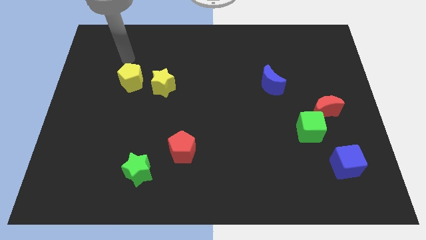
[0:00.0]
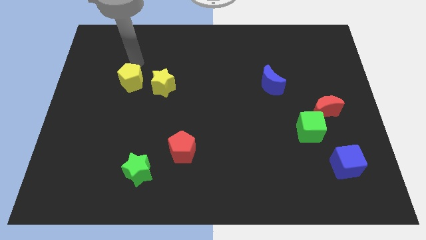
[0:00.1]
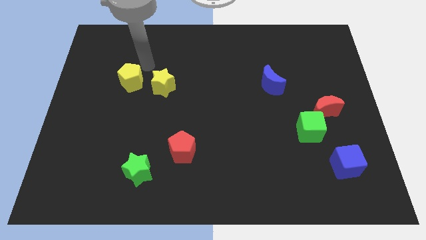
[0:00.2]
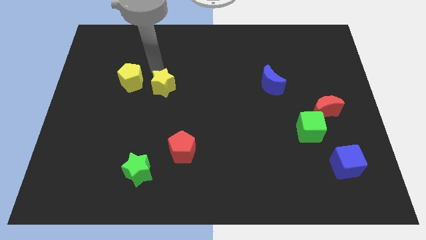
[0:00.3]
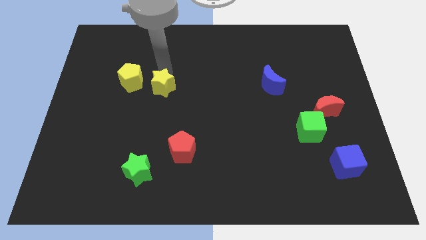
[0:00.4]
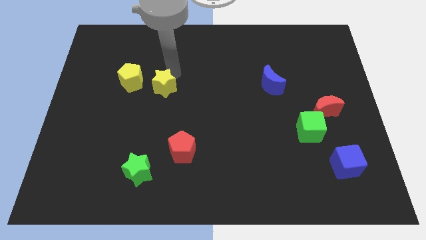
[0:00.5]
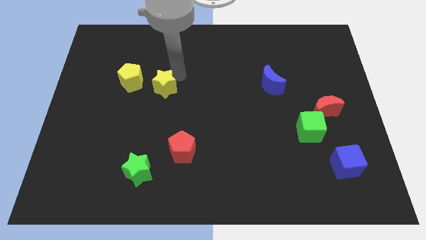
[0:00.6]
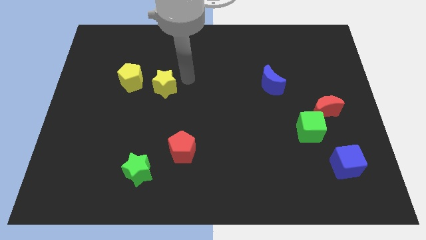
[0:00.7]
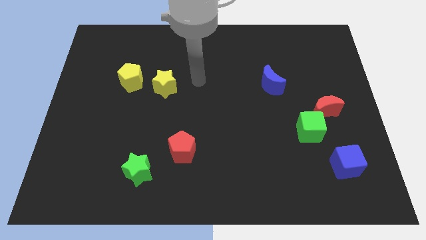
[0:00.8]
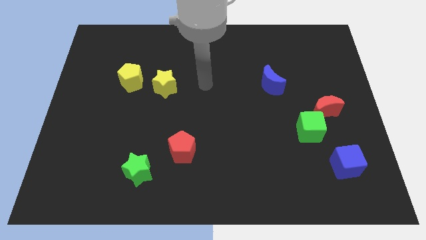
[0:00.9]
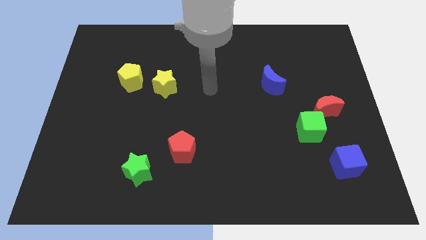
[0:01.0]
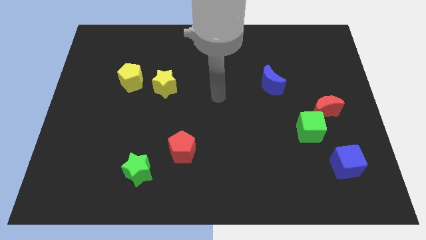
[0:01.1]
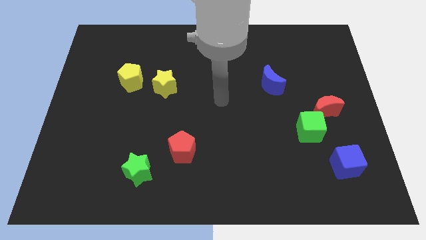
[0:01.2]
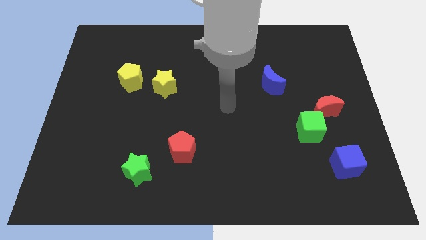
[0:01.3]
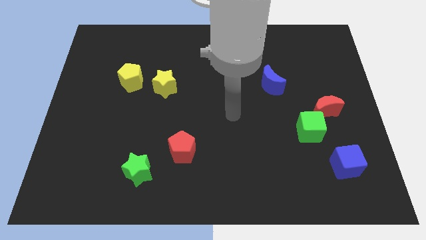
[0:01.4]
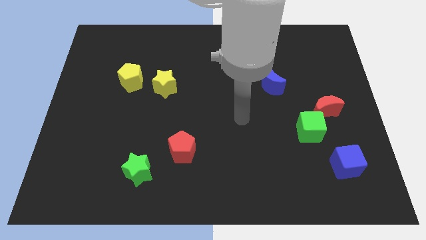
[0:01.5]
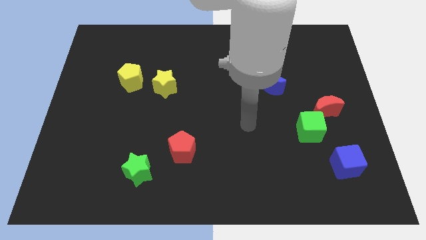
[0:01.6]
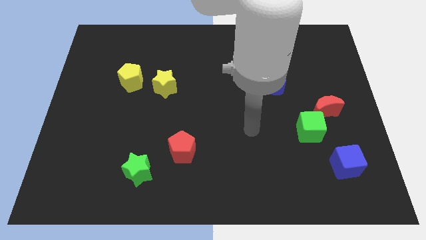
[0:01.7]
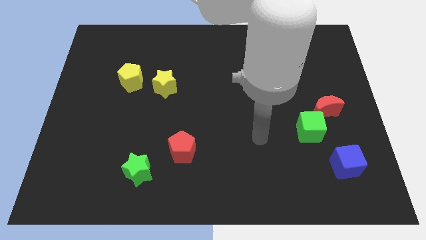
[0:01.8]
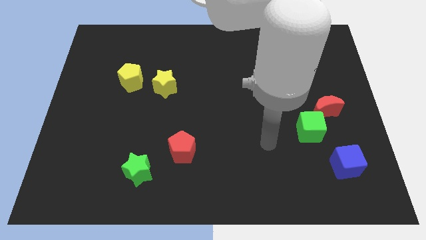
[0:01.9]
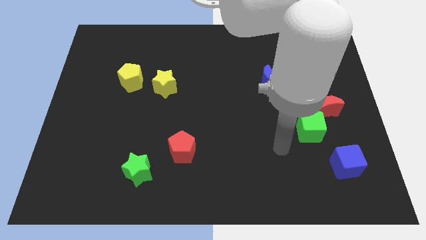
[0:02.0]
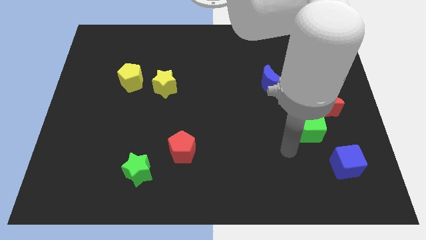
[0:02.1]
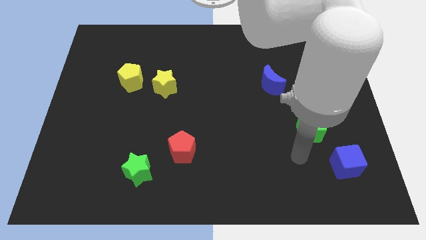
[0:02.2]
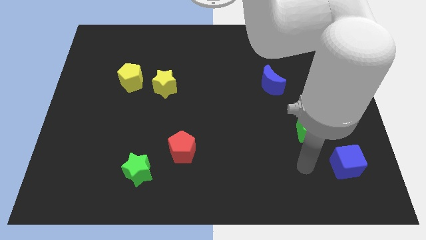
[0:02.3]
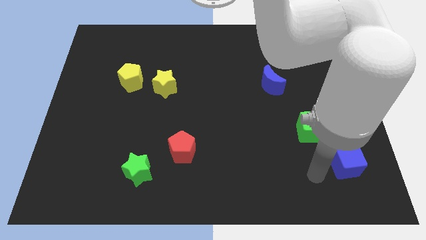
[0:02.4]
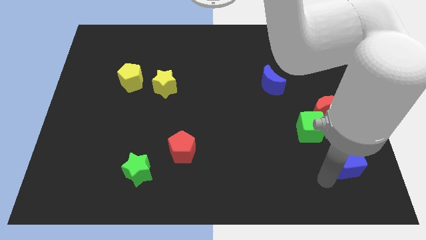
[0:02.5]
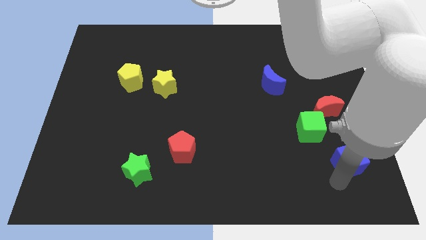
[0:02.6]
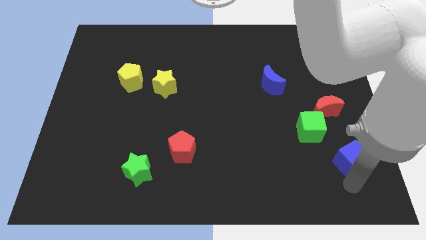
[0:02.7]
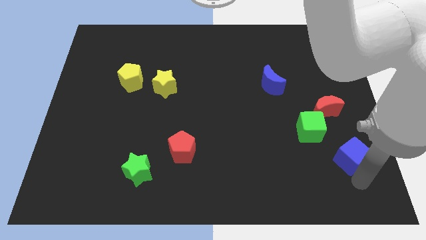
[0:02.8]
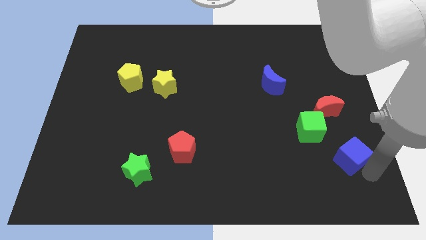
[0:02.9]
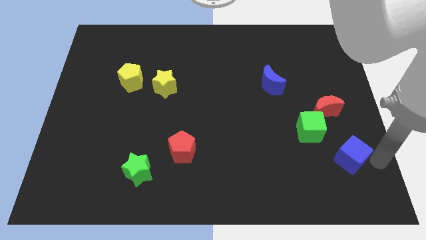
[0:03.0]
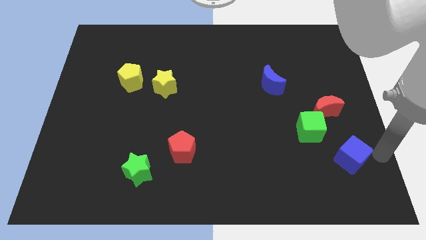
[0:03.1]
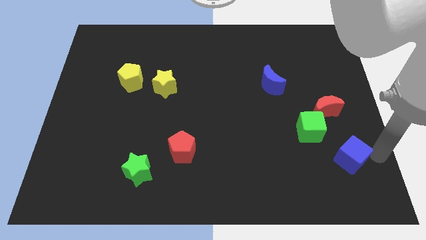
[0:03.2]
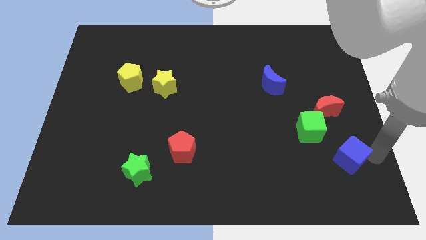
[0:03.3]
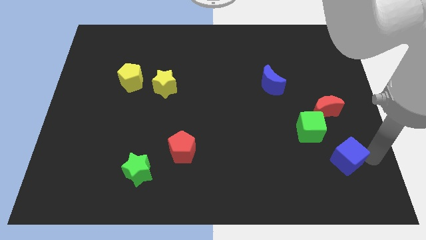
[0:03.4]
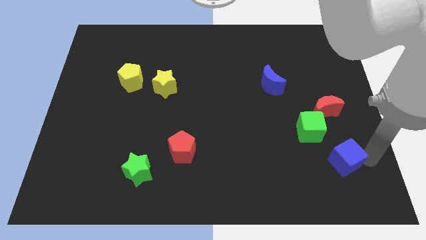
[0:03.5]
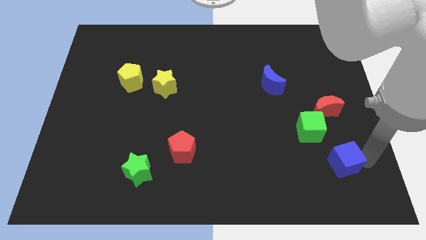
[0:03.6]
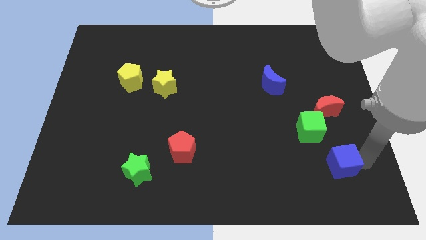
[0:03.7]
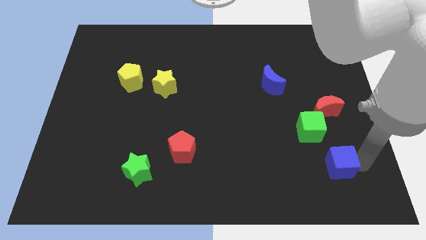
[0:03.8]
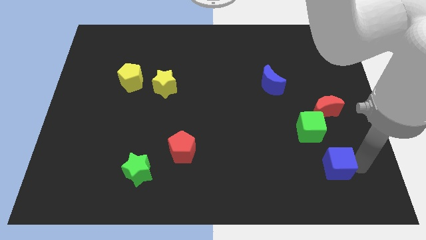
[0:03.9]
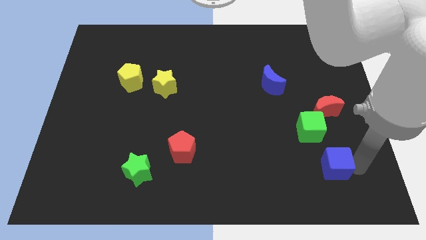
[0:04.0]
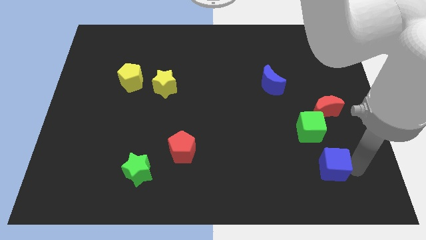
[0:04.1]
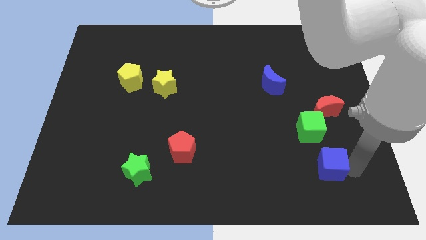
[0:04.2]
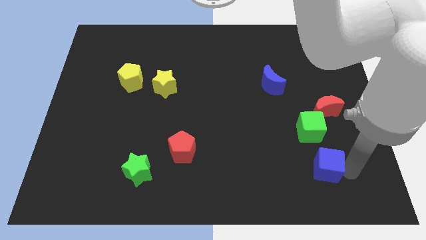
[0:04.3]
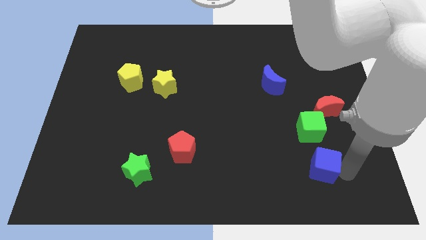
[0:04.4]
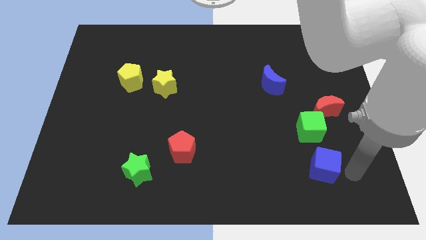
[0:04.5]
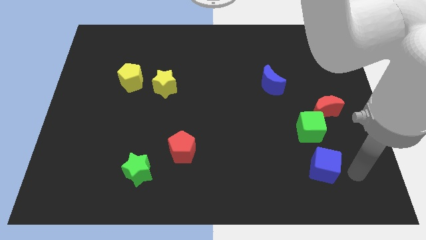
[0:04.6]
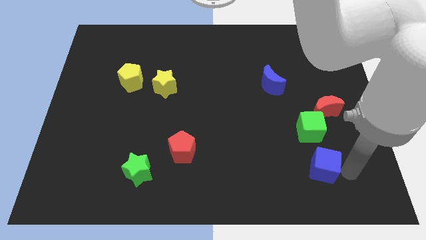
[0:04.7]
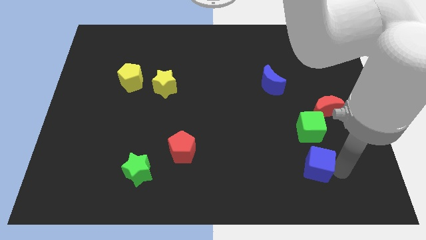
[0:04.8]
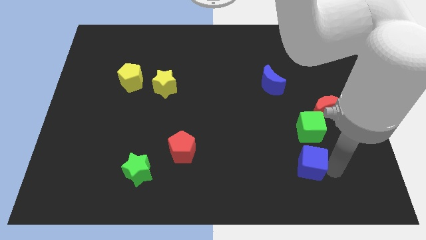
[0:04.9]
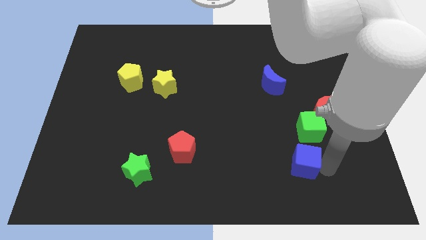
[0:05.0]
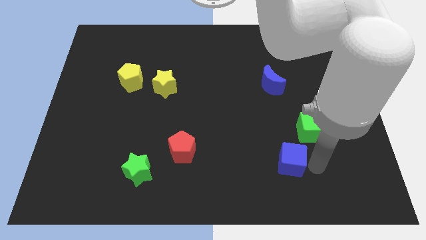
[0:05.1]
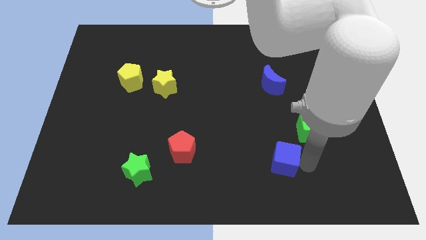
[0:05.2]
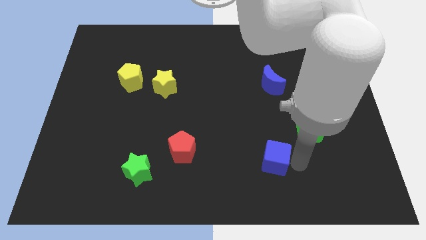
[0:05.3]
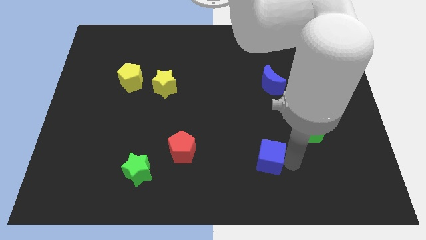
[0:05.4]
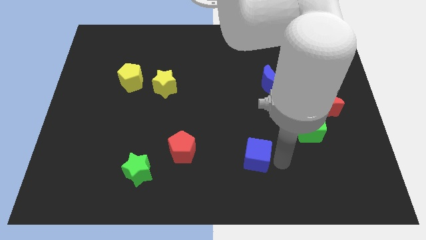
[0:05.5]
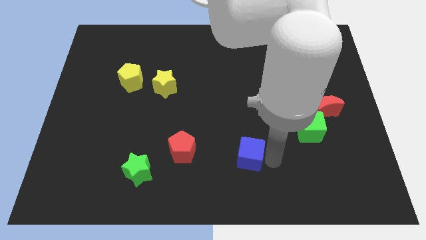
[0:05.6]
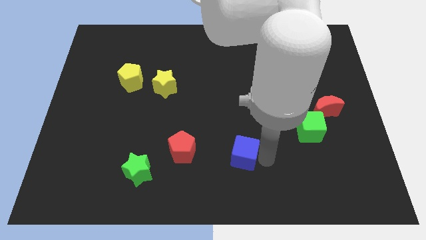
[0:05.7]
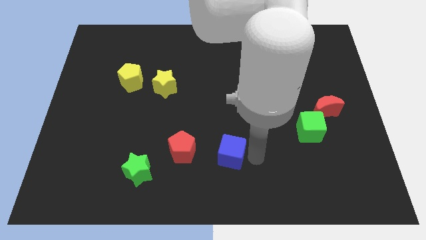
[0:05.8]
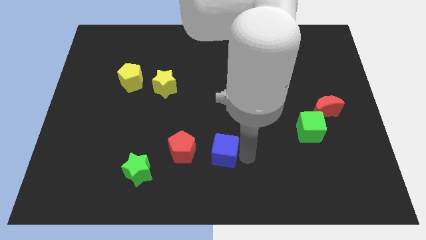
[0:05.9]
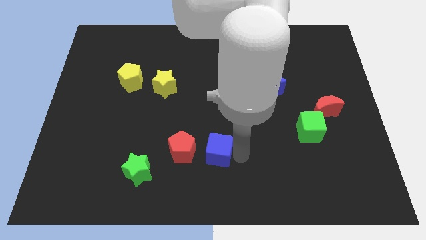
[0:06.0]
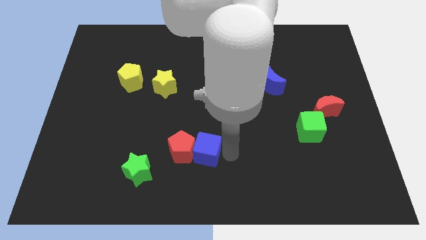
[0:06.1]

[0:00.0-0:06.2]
put the blue cube to the red pentagon
